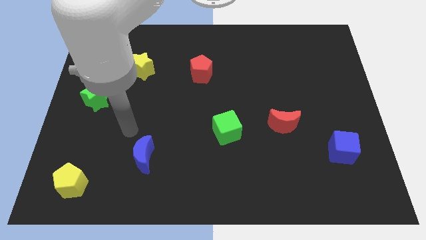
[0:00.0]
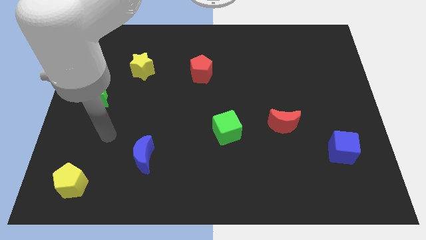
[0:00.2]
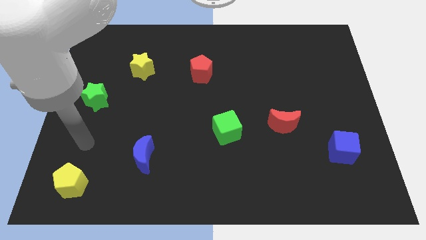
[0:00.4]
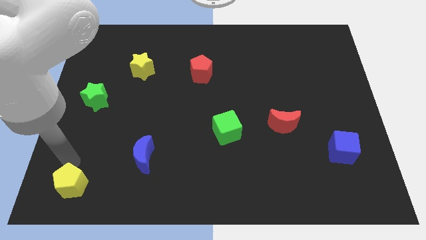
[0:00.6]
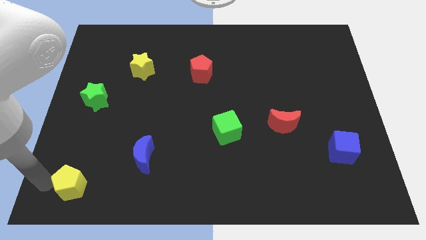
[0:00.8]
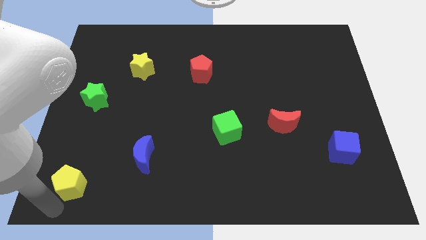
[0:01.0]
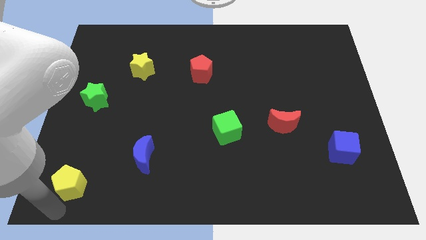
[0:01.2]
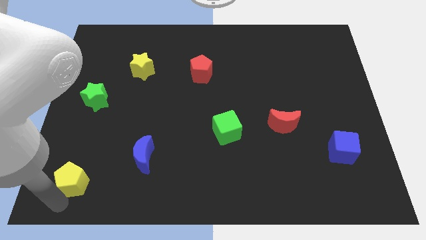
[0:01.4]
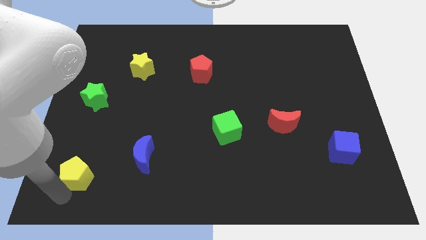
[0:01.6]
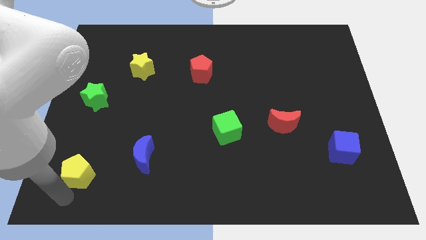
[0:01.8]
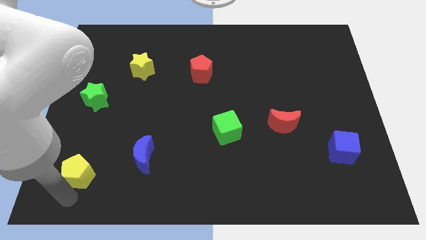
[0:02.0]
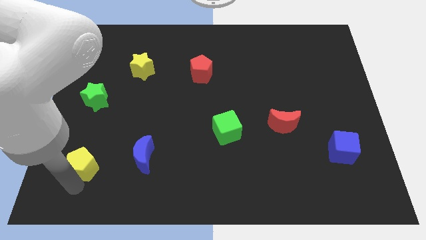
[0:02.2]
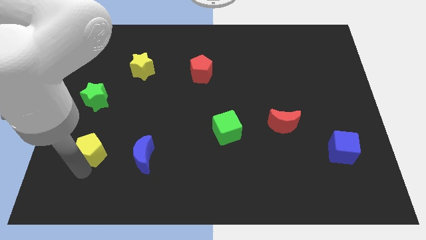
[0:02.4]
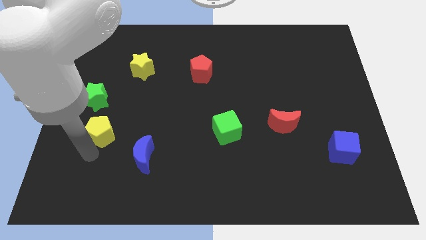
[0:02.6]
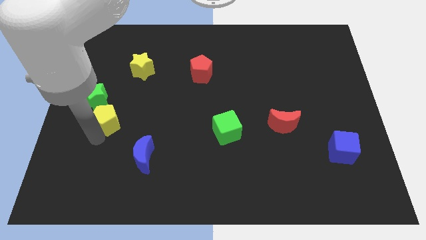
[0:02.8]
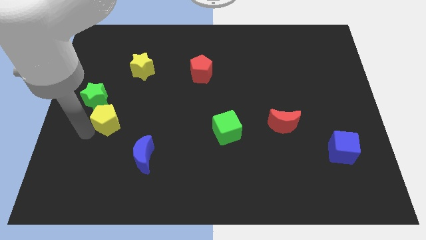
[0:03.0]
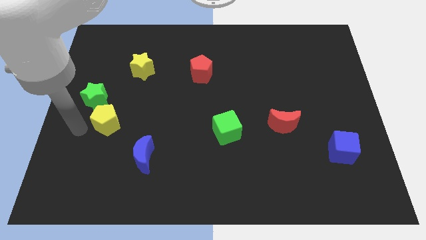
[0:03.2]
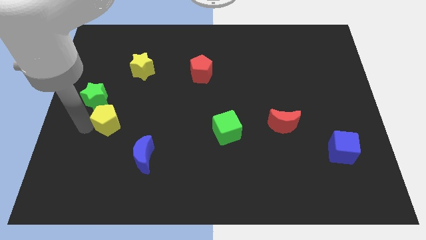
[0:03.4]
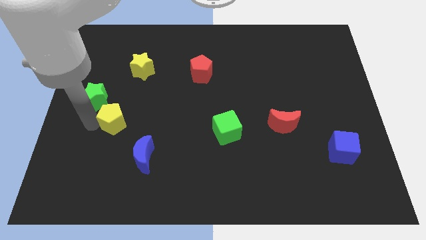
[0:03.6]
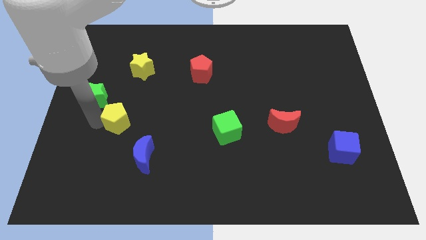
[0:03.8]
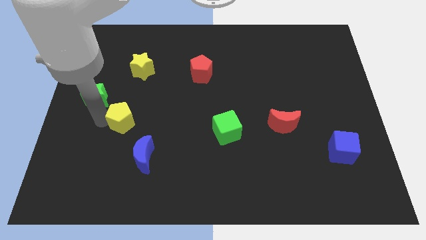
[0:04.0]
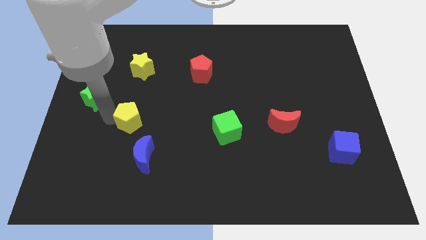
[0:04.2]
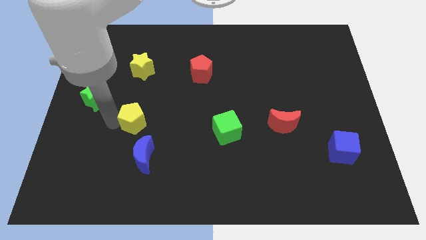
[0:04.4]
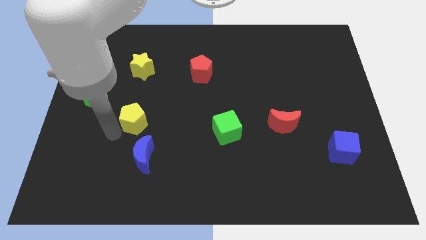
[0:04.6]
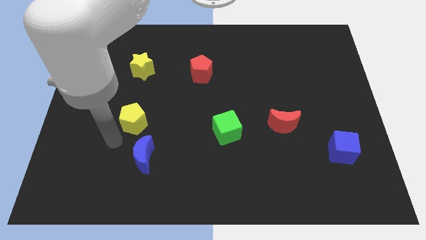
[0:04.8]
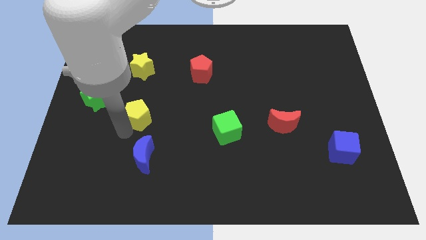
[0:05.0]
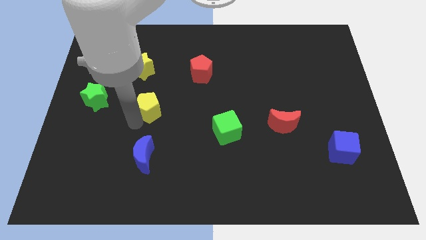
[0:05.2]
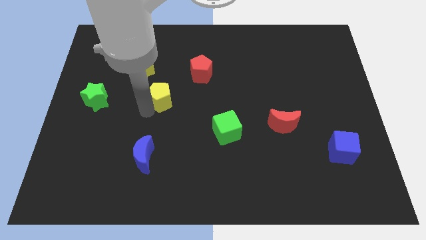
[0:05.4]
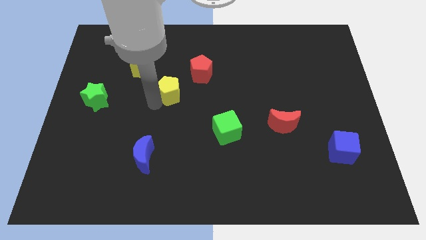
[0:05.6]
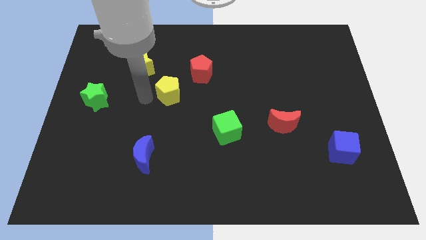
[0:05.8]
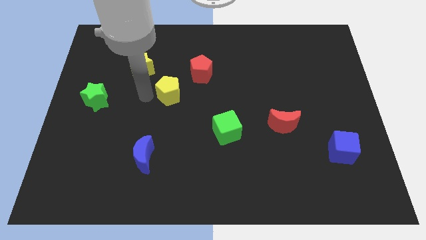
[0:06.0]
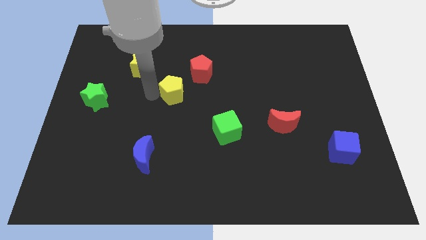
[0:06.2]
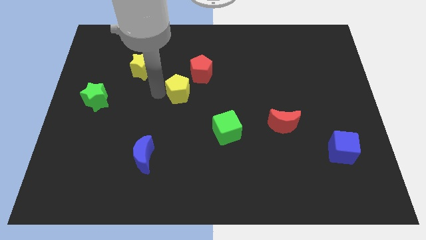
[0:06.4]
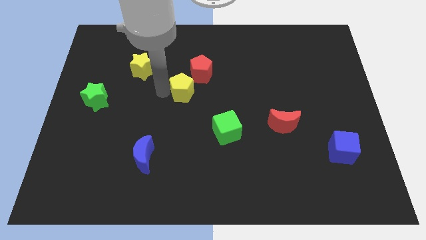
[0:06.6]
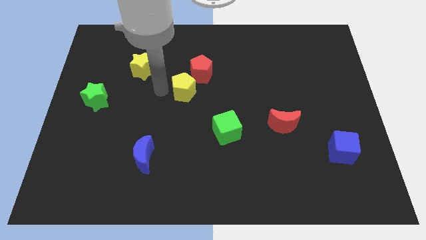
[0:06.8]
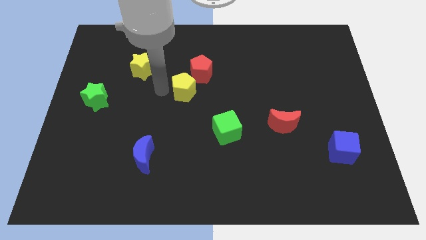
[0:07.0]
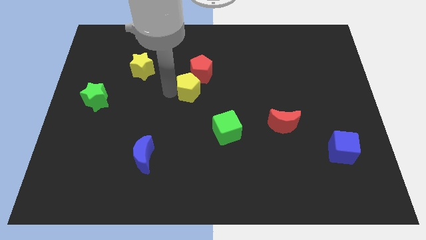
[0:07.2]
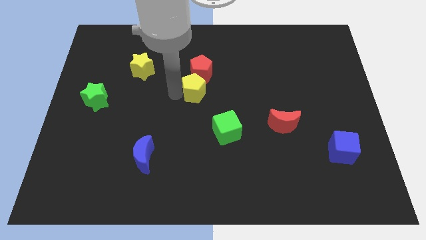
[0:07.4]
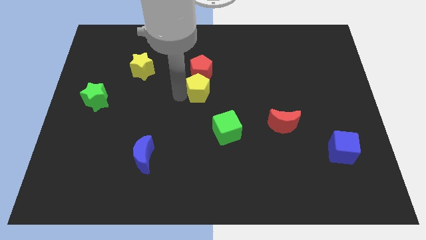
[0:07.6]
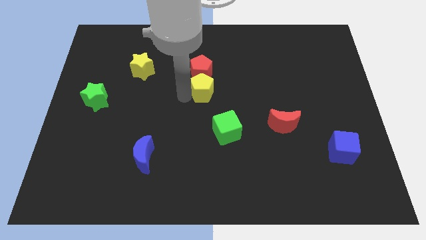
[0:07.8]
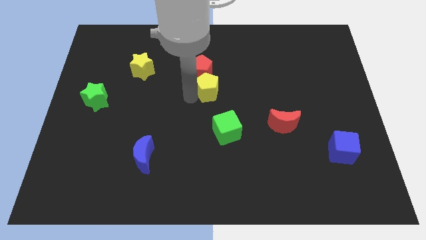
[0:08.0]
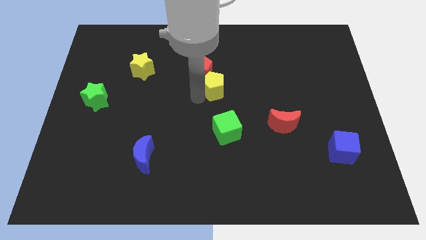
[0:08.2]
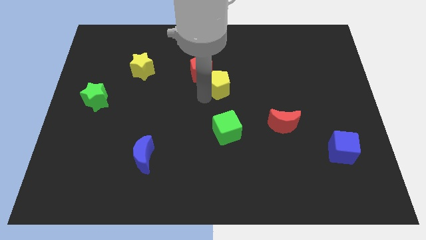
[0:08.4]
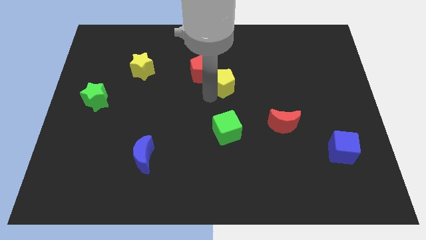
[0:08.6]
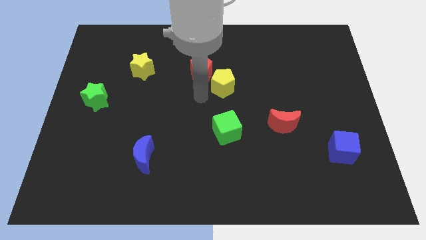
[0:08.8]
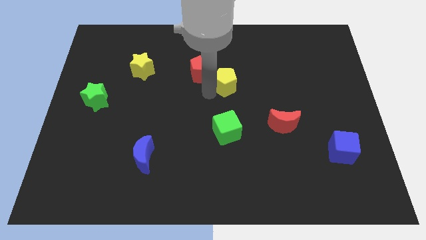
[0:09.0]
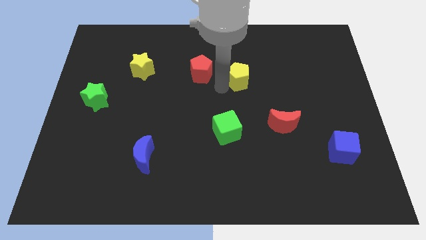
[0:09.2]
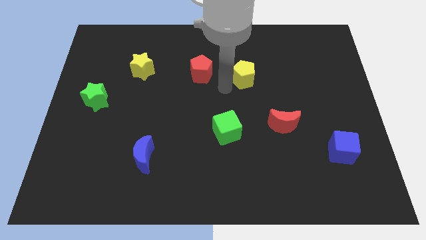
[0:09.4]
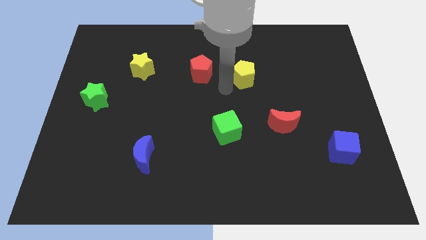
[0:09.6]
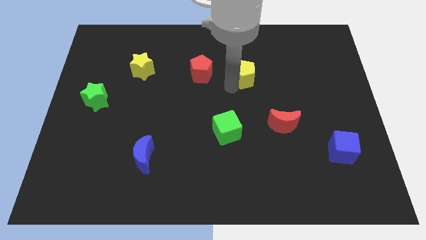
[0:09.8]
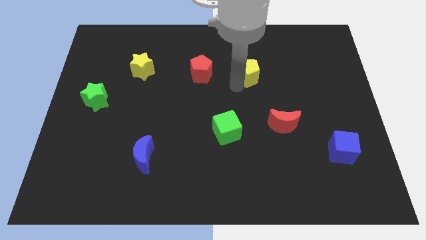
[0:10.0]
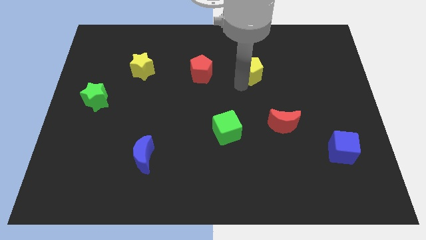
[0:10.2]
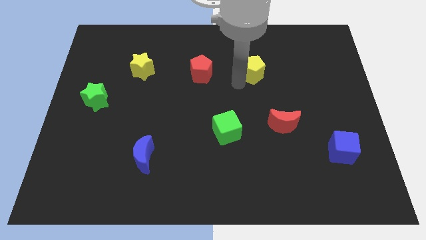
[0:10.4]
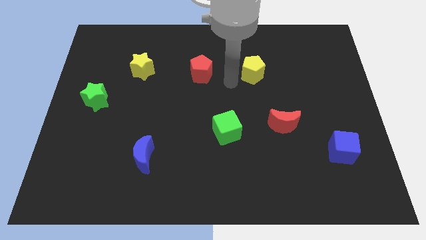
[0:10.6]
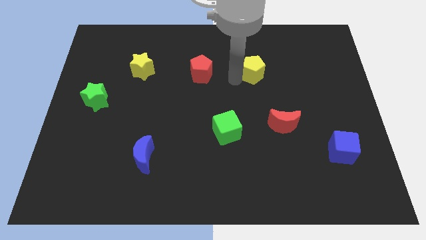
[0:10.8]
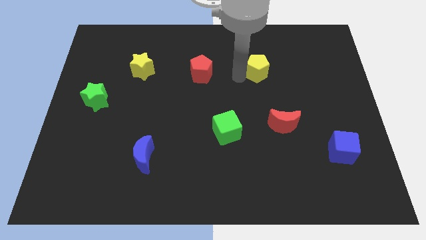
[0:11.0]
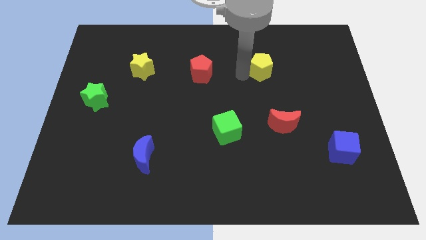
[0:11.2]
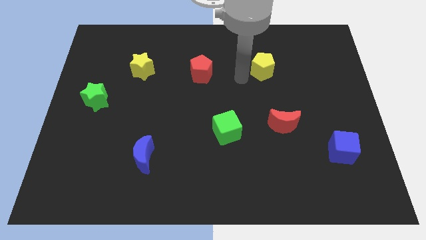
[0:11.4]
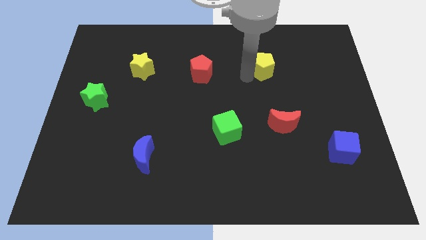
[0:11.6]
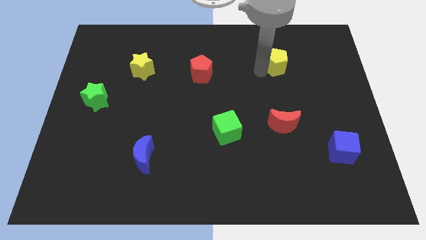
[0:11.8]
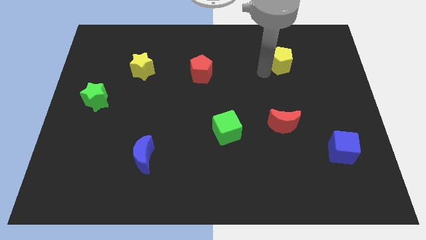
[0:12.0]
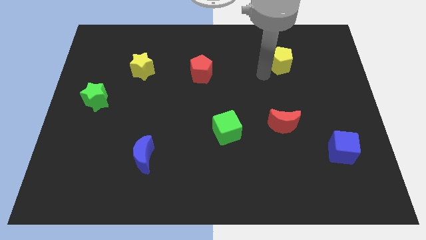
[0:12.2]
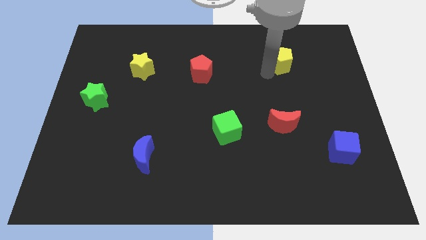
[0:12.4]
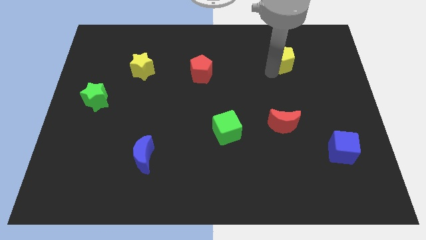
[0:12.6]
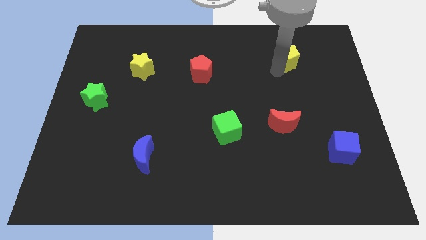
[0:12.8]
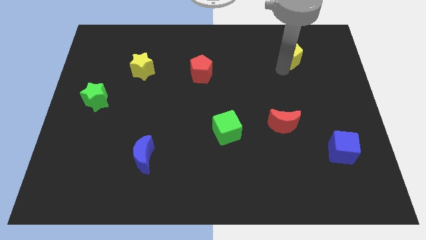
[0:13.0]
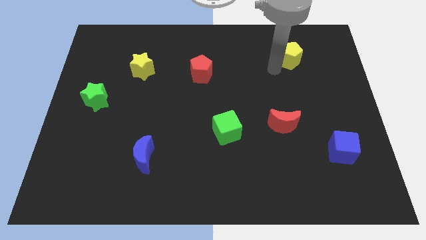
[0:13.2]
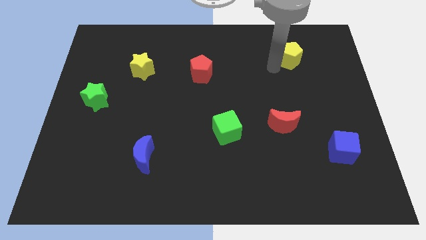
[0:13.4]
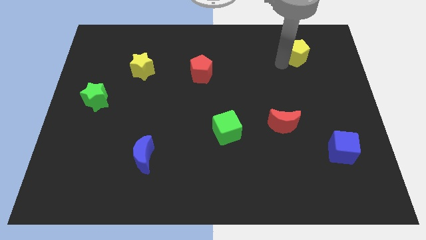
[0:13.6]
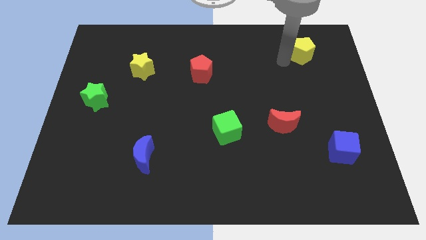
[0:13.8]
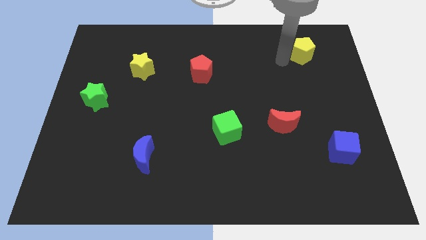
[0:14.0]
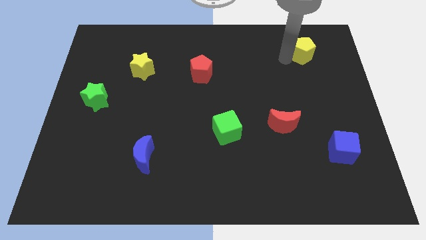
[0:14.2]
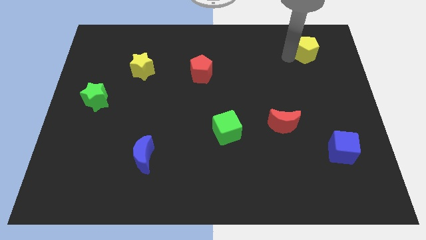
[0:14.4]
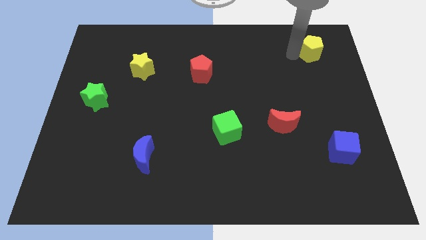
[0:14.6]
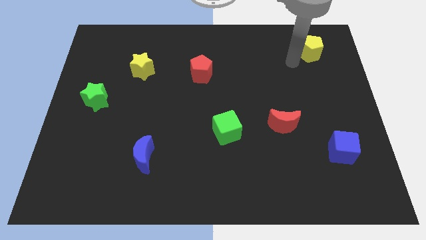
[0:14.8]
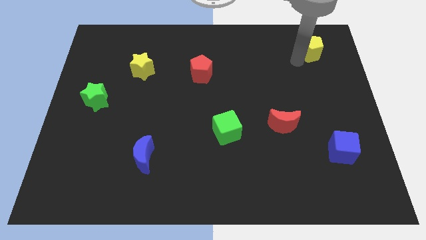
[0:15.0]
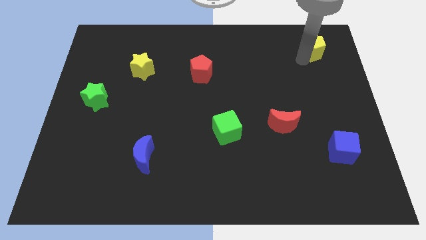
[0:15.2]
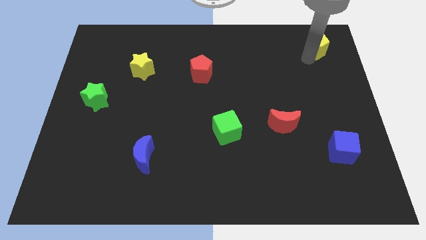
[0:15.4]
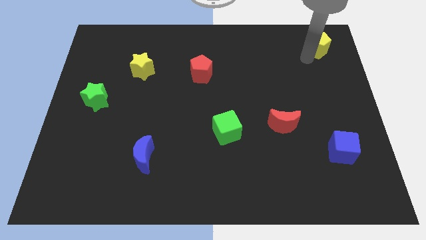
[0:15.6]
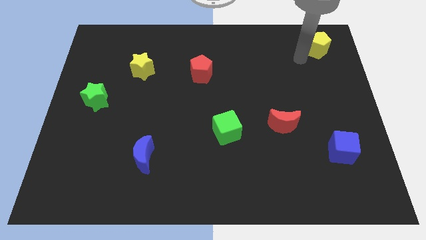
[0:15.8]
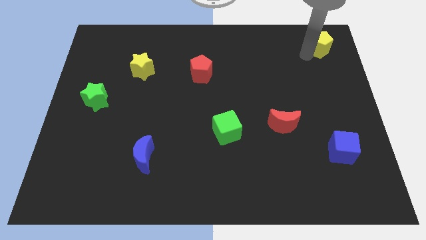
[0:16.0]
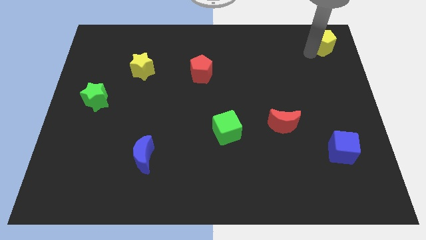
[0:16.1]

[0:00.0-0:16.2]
move the yellow pentagon to the top right corner
